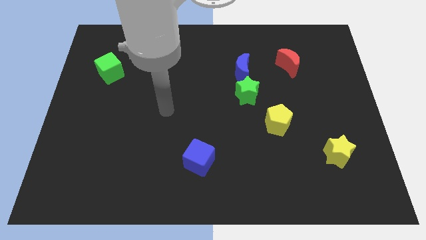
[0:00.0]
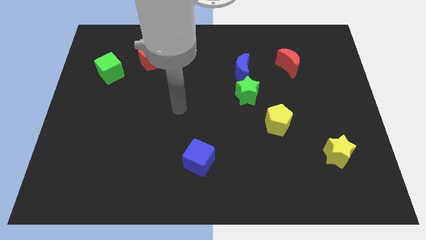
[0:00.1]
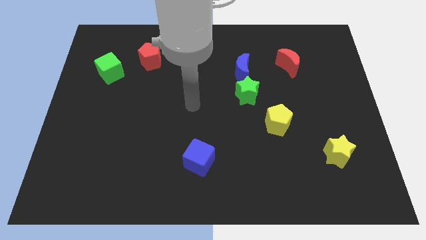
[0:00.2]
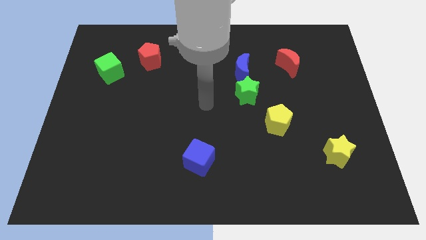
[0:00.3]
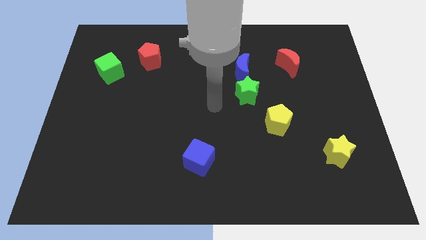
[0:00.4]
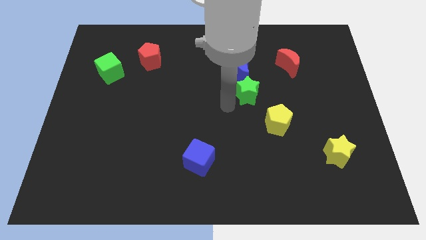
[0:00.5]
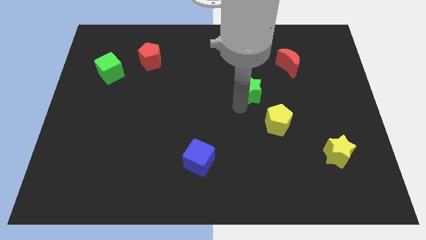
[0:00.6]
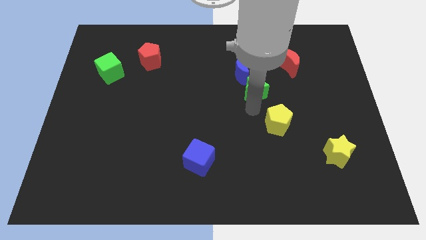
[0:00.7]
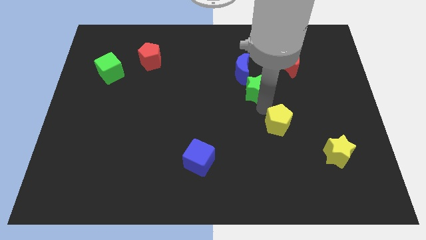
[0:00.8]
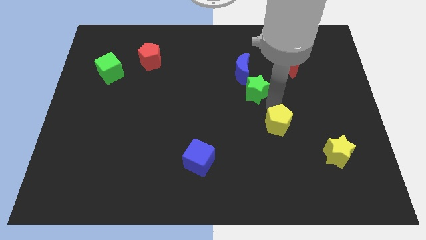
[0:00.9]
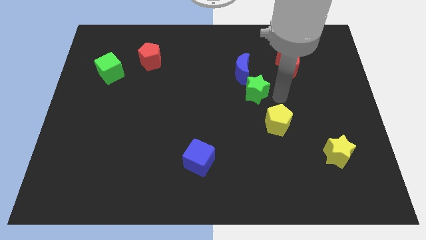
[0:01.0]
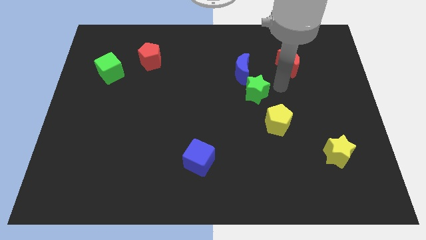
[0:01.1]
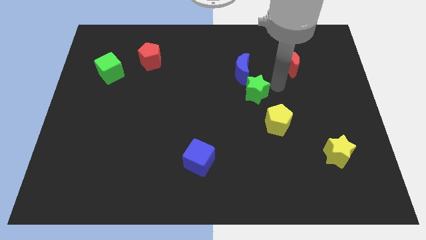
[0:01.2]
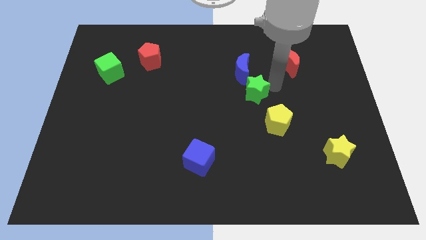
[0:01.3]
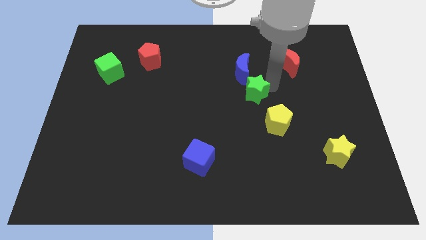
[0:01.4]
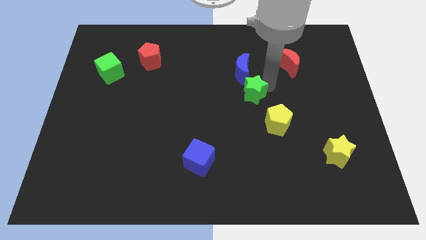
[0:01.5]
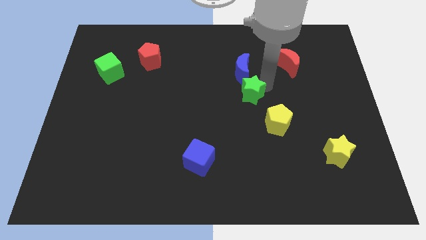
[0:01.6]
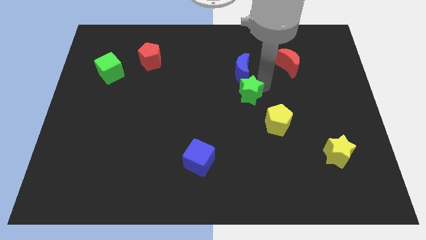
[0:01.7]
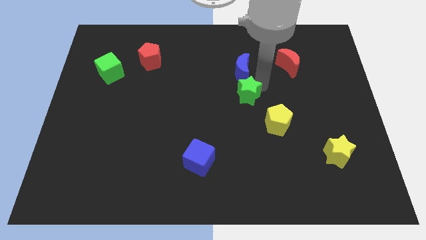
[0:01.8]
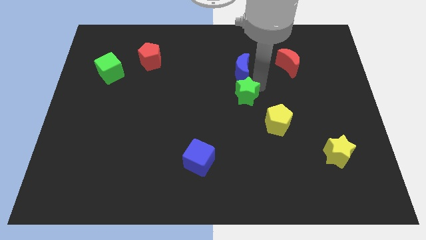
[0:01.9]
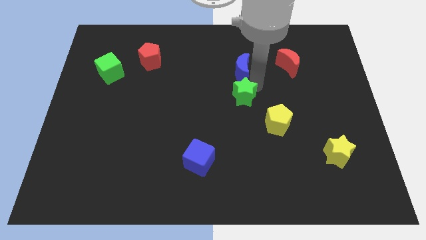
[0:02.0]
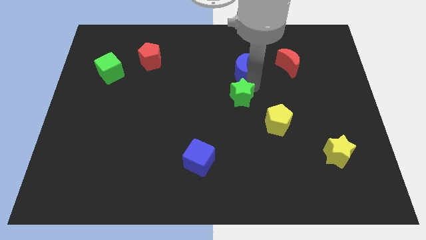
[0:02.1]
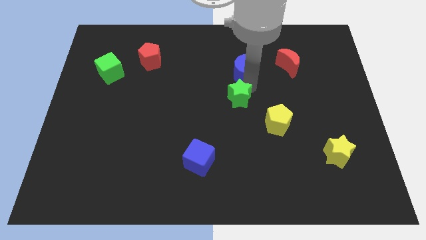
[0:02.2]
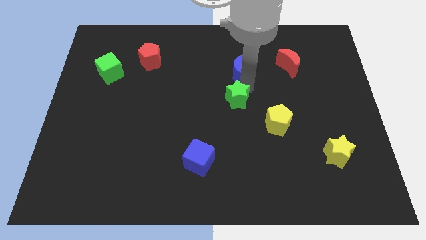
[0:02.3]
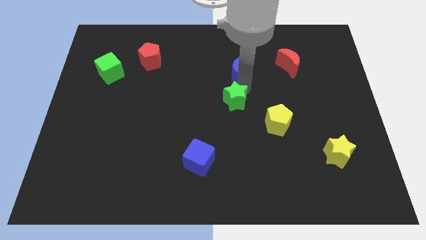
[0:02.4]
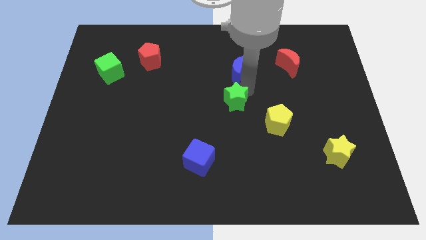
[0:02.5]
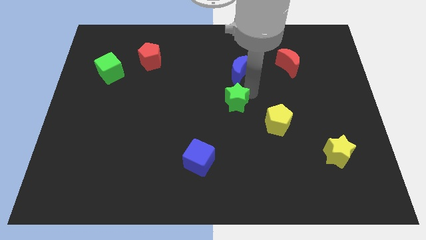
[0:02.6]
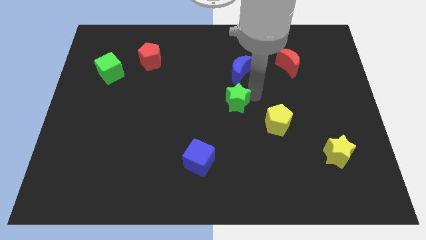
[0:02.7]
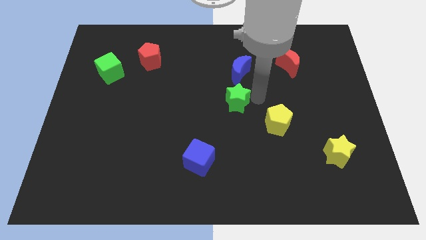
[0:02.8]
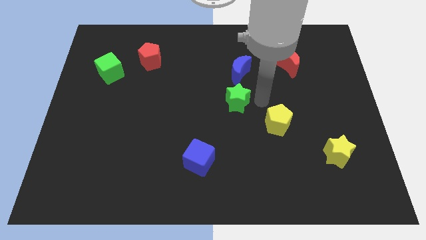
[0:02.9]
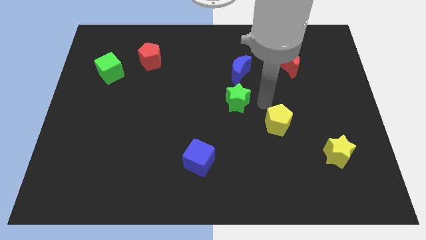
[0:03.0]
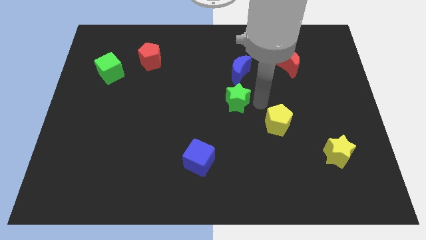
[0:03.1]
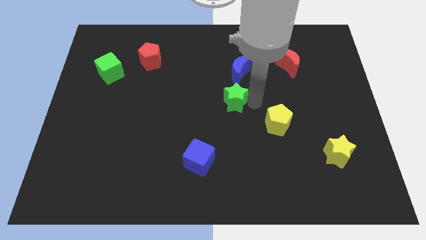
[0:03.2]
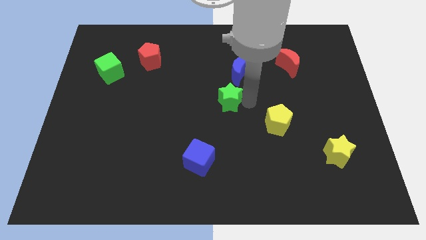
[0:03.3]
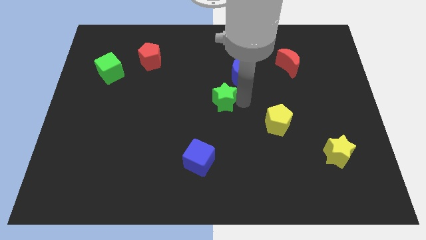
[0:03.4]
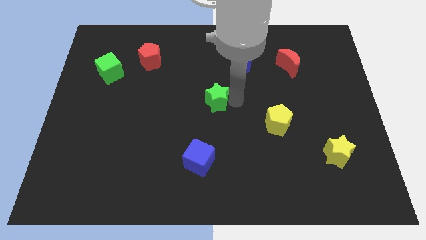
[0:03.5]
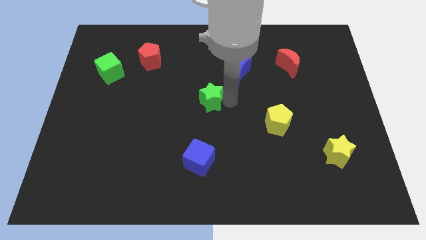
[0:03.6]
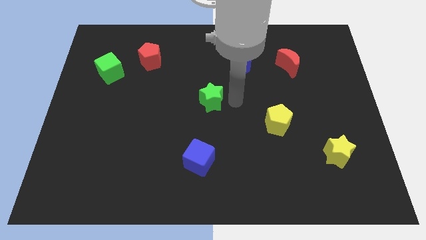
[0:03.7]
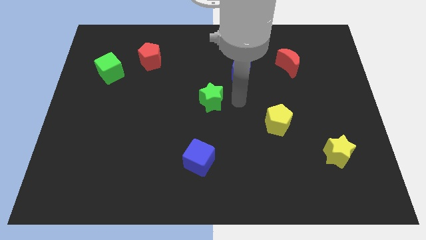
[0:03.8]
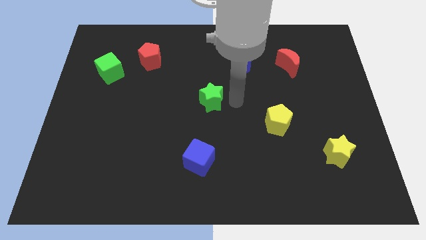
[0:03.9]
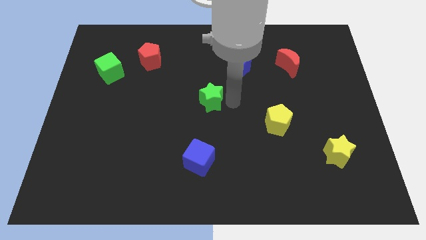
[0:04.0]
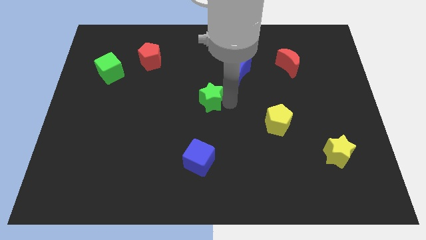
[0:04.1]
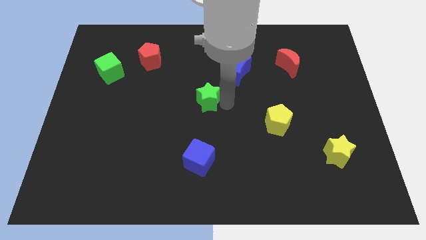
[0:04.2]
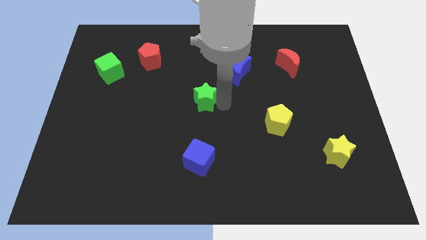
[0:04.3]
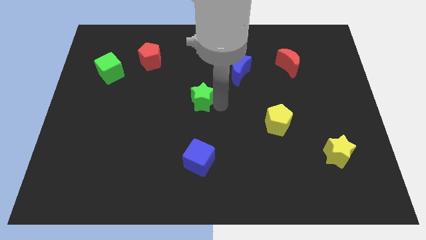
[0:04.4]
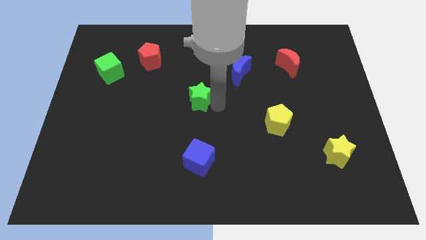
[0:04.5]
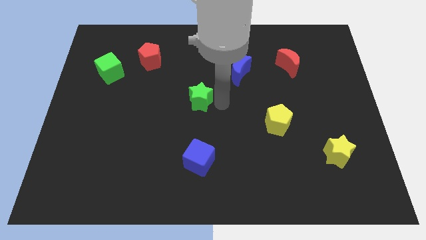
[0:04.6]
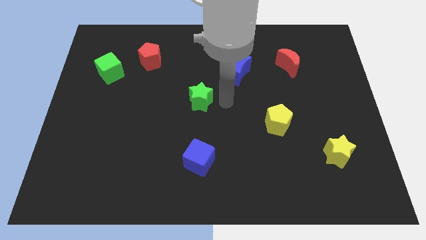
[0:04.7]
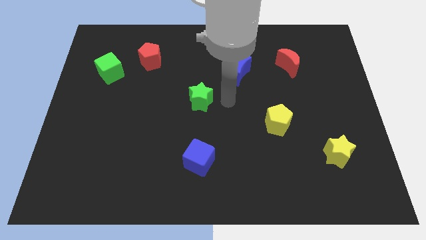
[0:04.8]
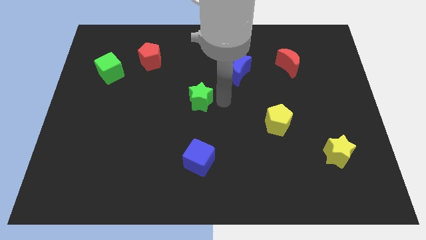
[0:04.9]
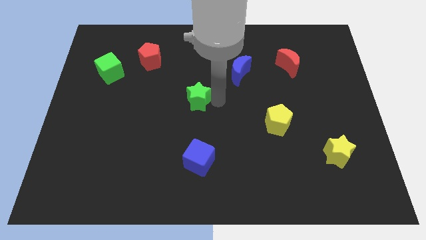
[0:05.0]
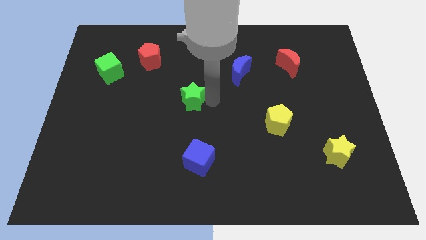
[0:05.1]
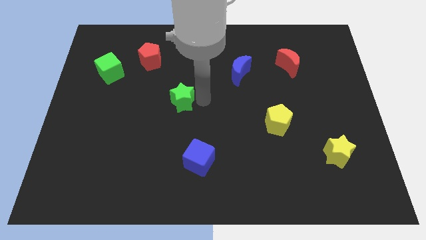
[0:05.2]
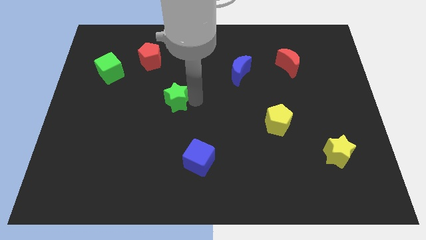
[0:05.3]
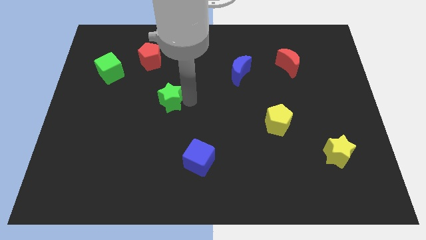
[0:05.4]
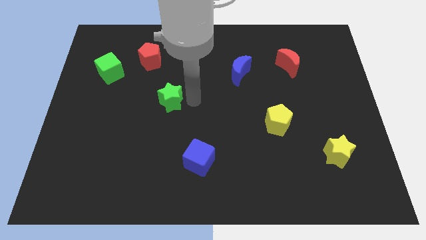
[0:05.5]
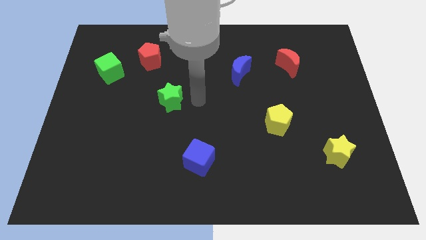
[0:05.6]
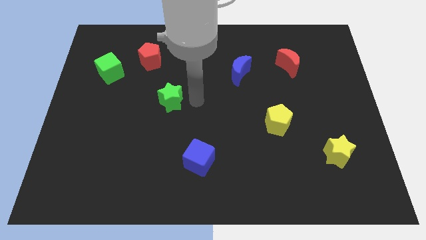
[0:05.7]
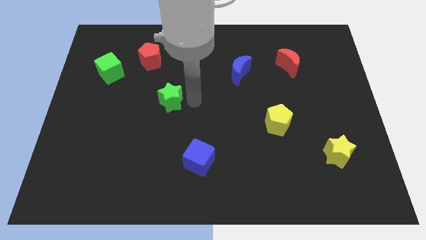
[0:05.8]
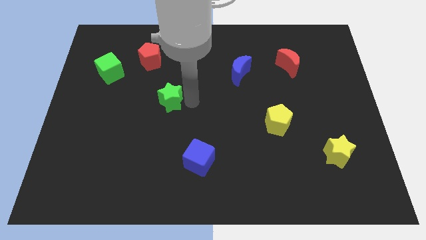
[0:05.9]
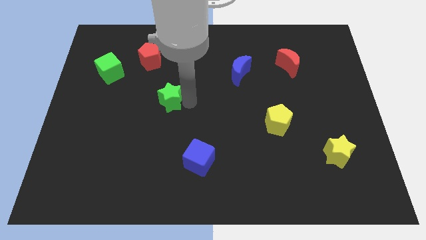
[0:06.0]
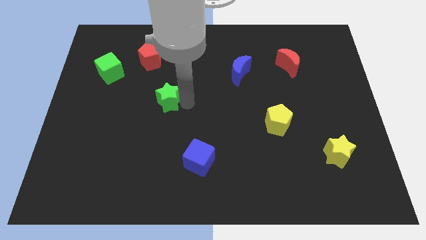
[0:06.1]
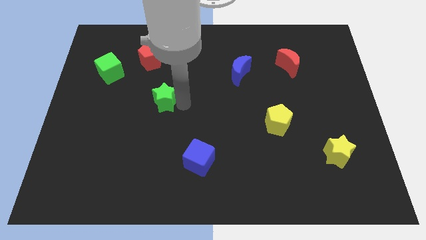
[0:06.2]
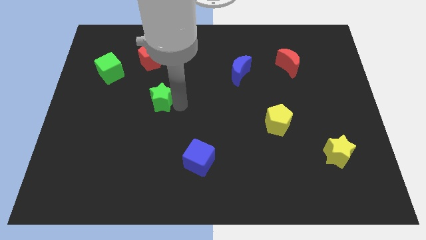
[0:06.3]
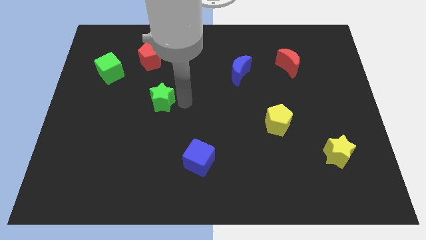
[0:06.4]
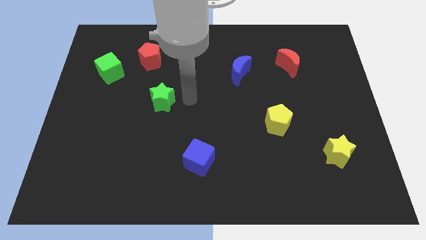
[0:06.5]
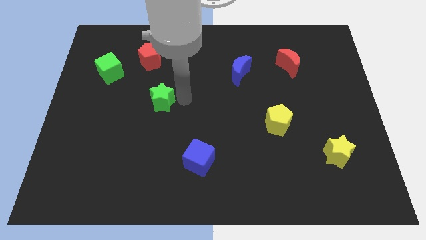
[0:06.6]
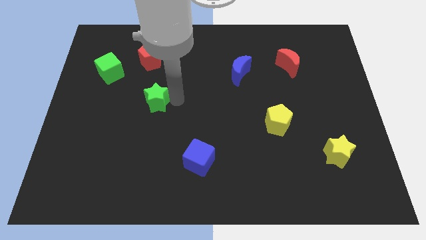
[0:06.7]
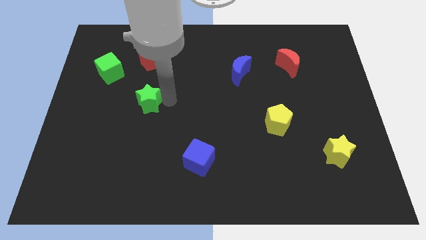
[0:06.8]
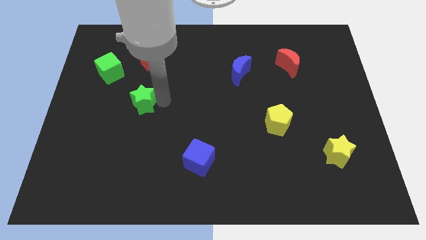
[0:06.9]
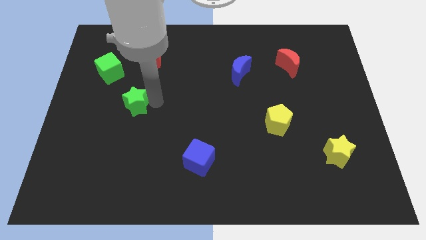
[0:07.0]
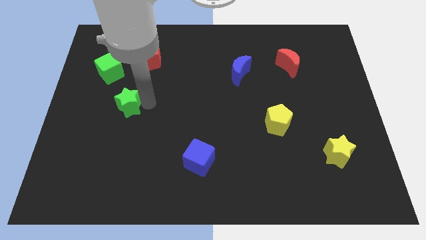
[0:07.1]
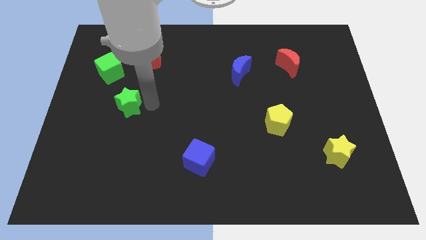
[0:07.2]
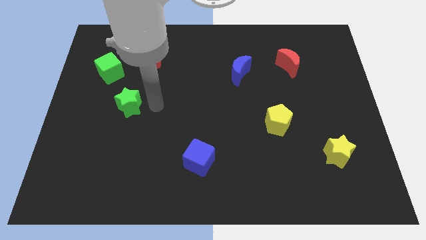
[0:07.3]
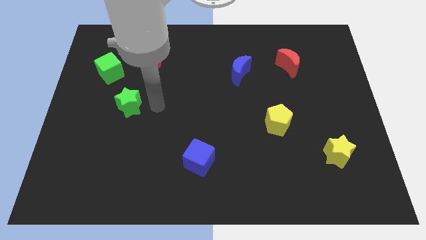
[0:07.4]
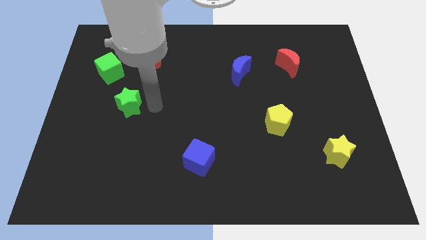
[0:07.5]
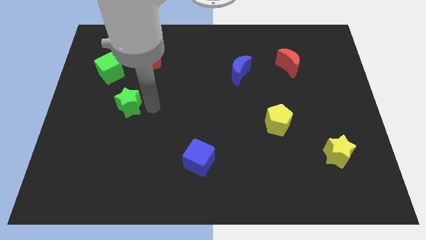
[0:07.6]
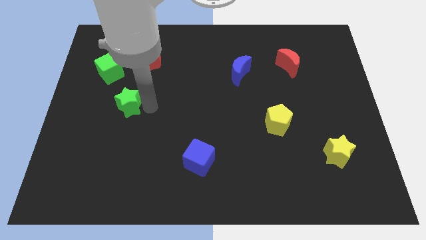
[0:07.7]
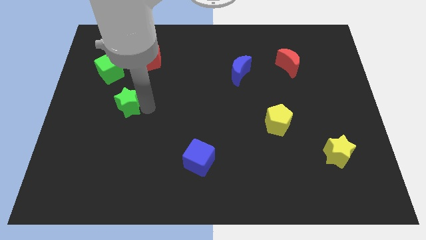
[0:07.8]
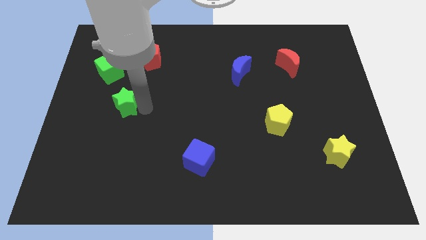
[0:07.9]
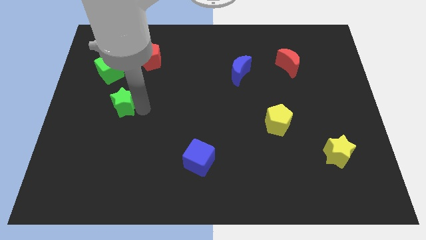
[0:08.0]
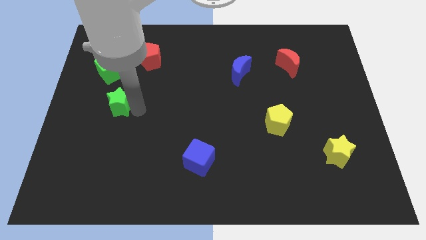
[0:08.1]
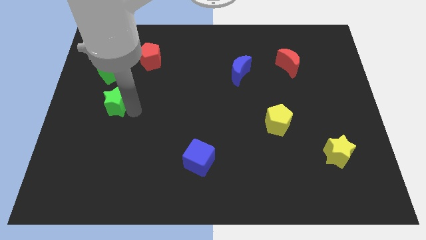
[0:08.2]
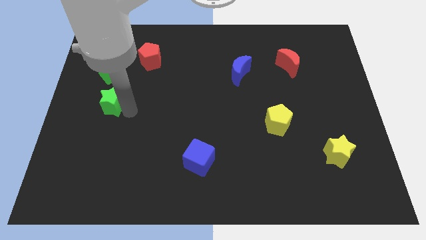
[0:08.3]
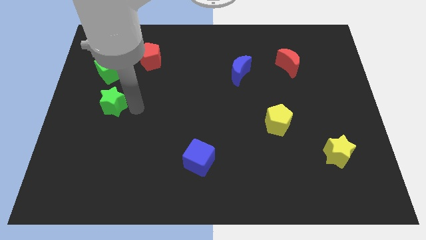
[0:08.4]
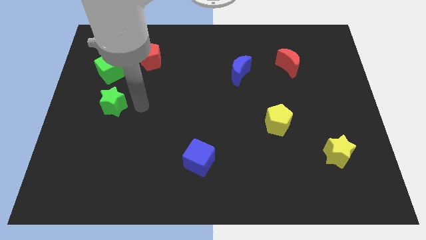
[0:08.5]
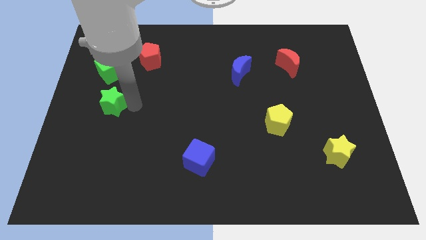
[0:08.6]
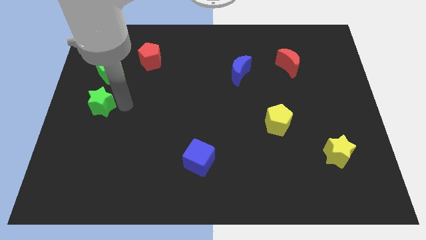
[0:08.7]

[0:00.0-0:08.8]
push the green star to the left side
